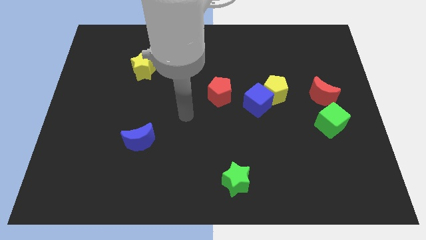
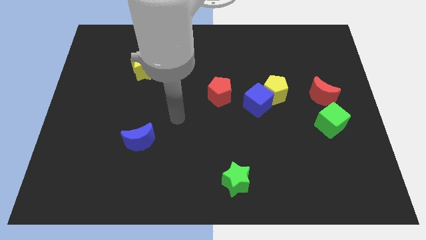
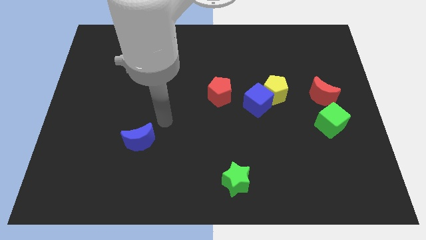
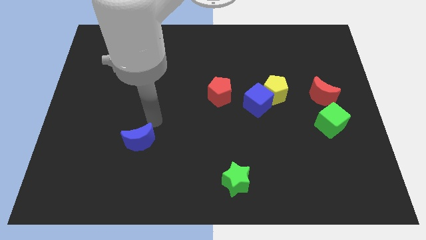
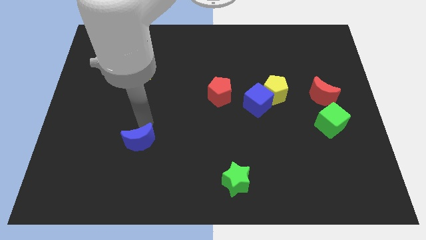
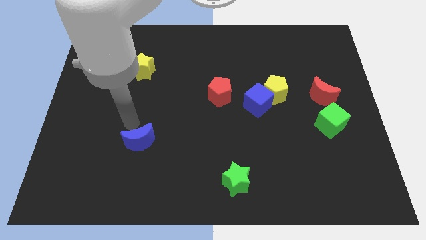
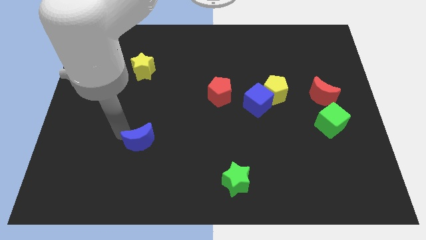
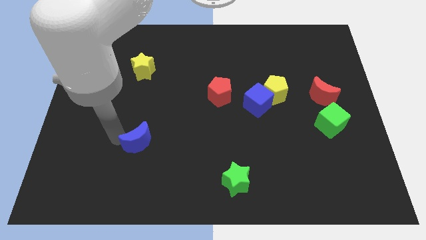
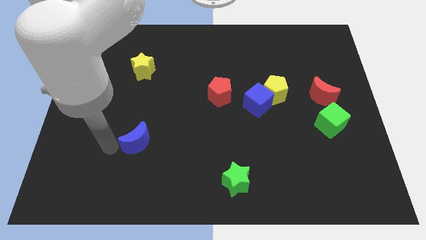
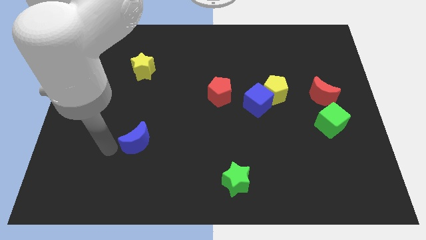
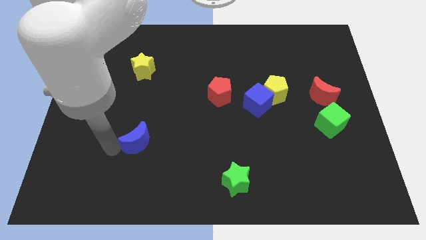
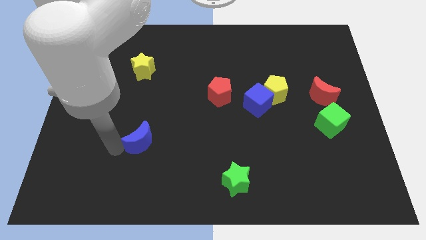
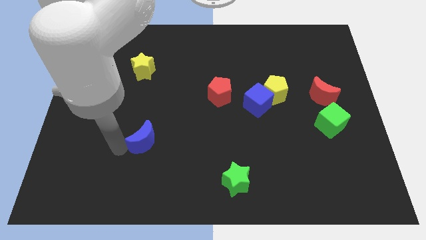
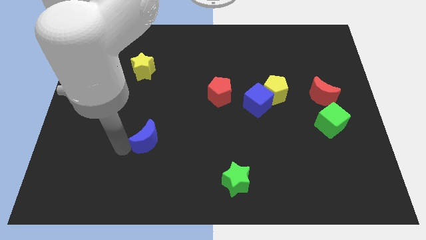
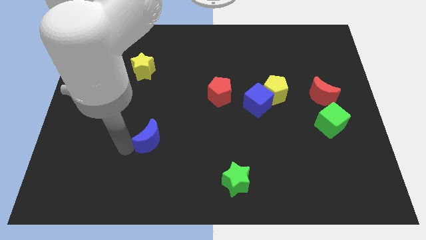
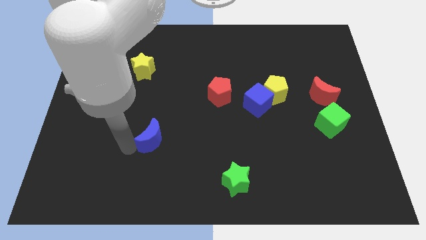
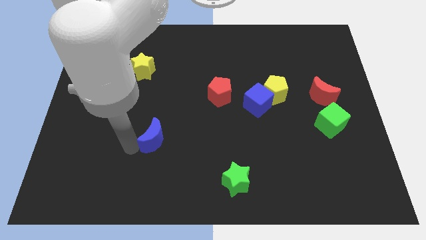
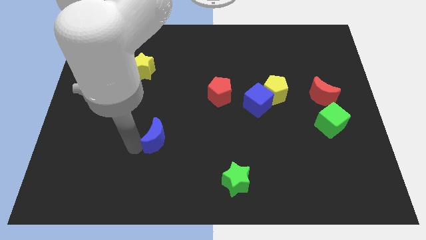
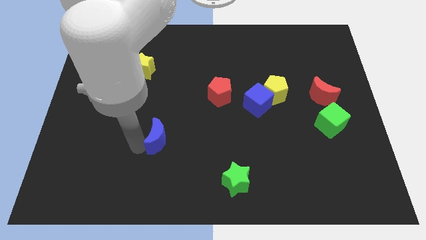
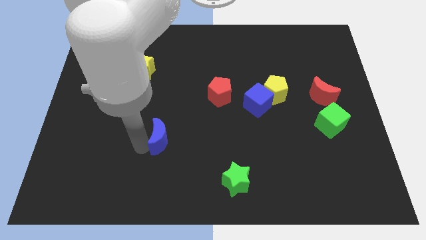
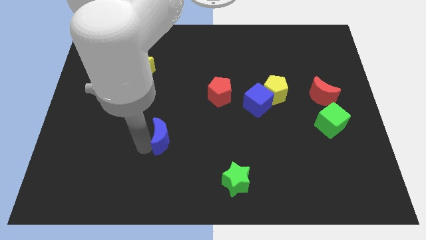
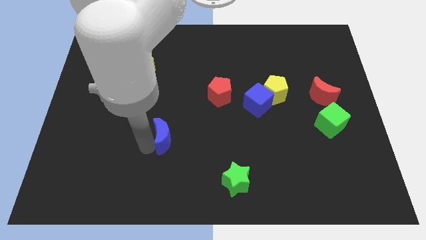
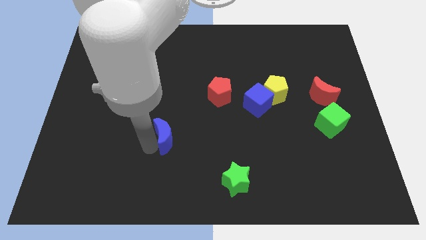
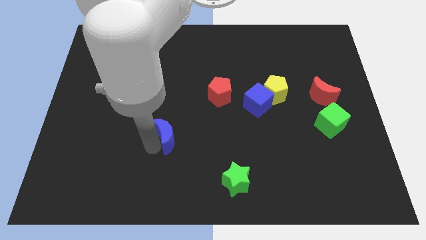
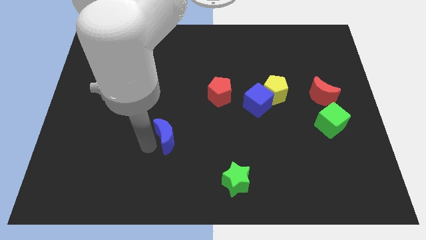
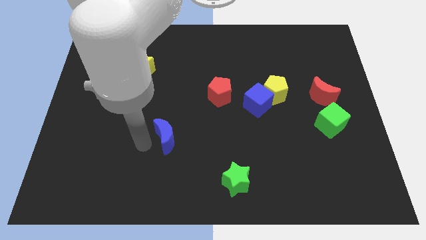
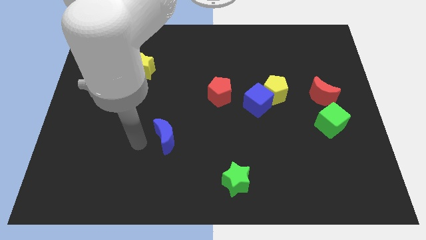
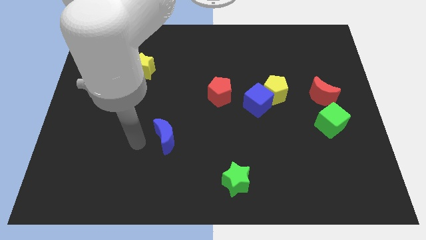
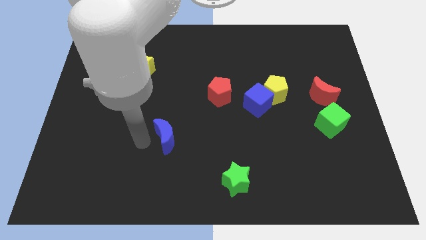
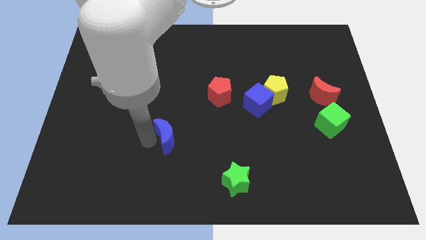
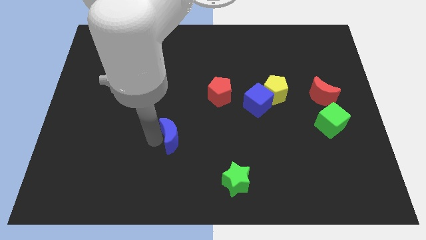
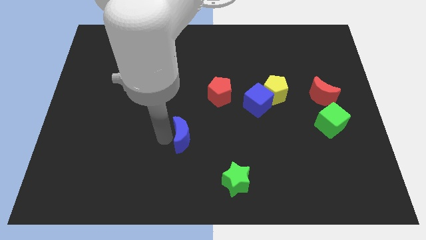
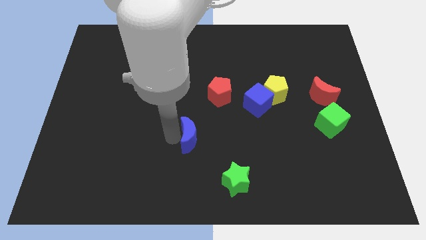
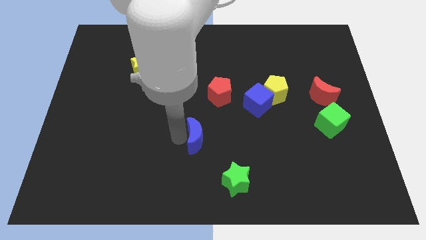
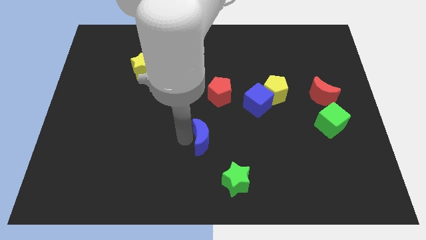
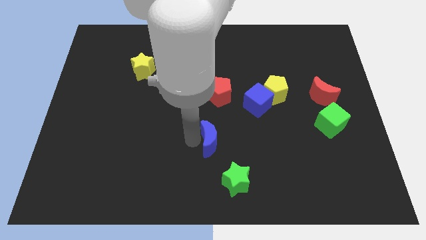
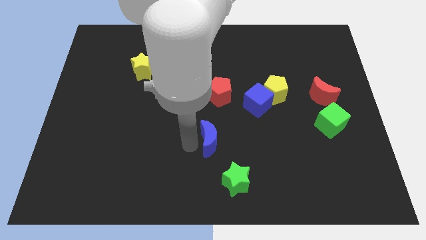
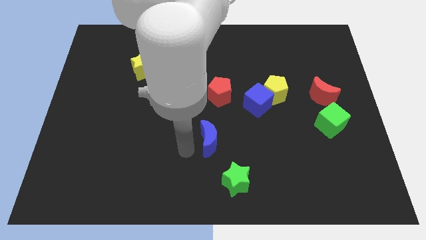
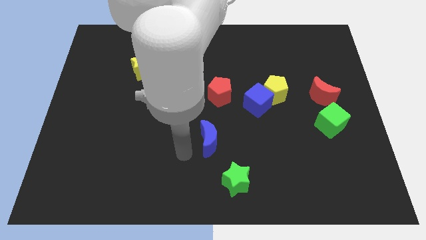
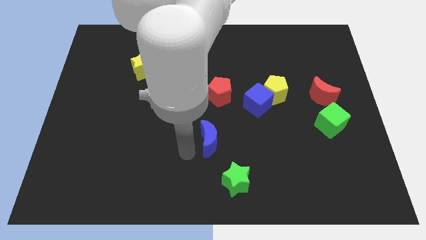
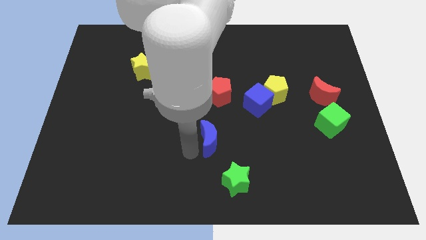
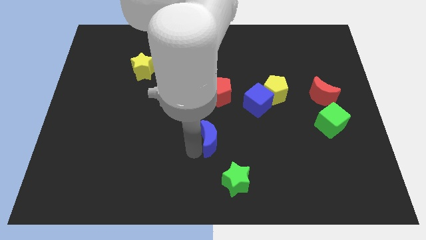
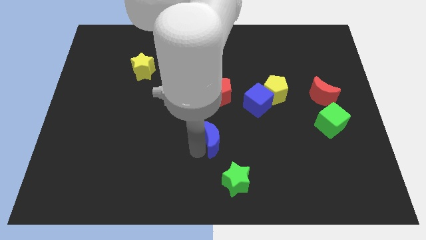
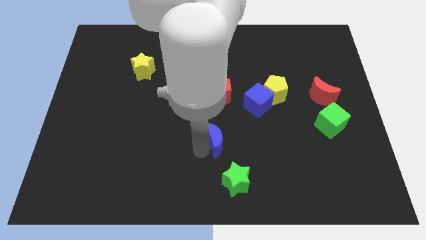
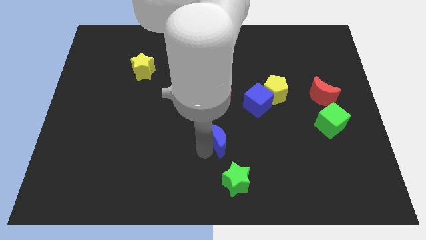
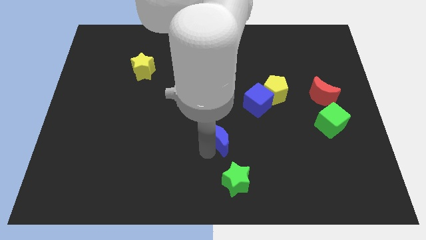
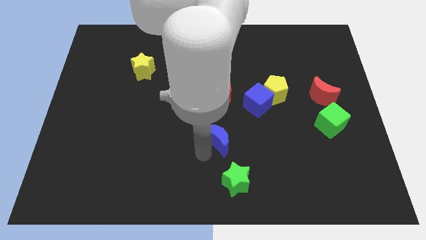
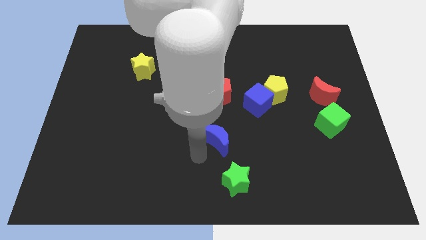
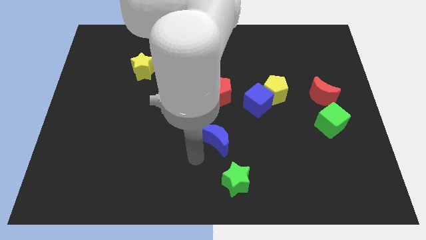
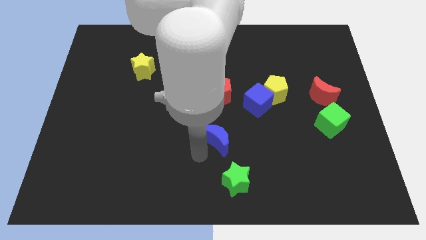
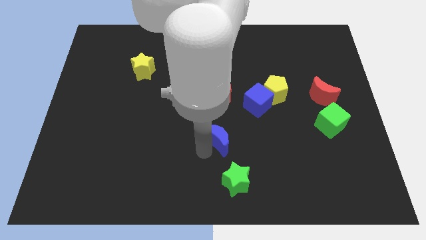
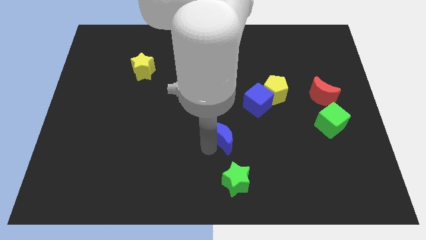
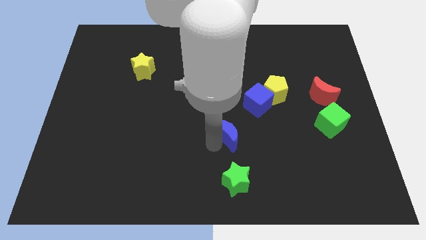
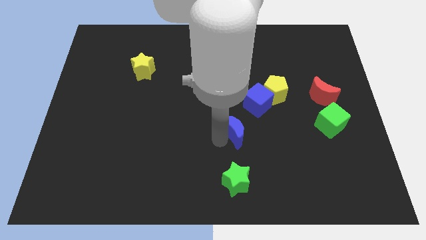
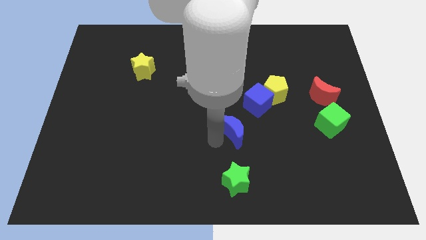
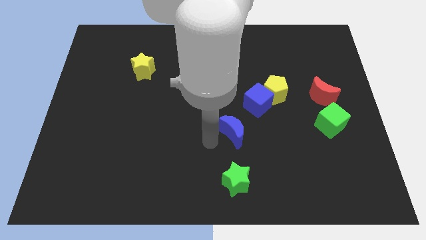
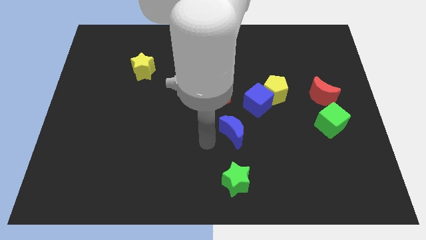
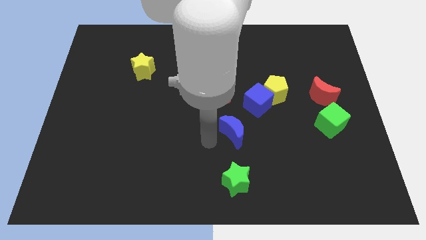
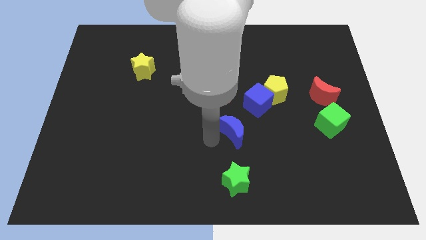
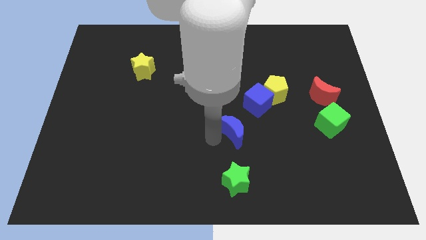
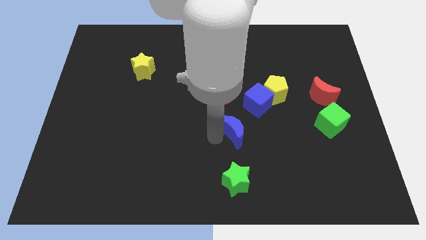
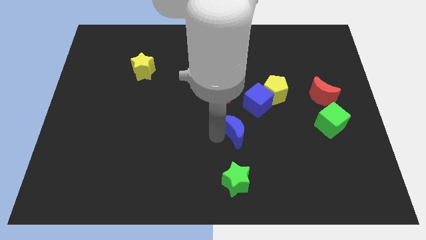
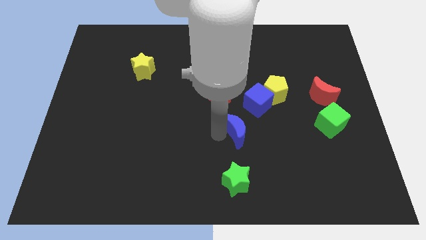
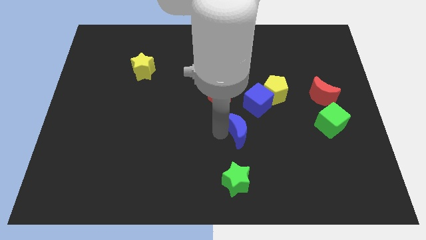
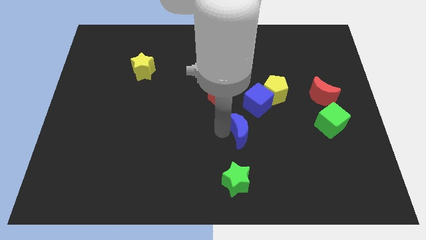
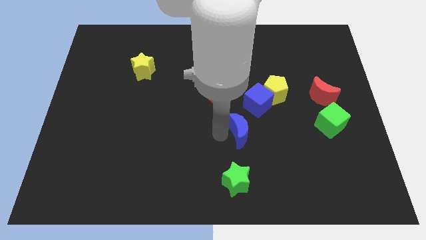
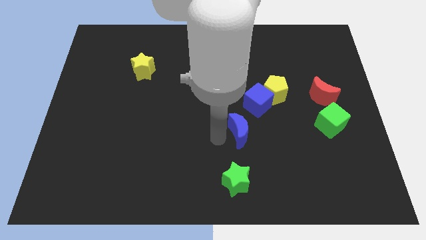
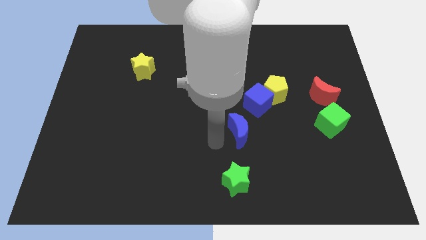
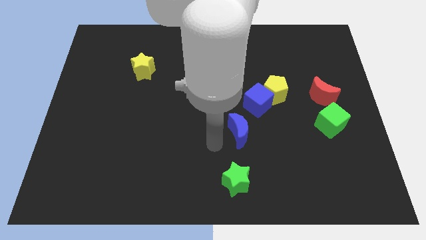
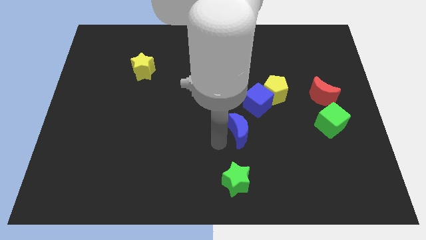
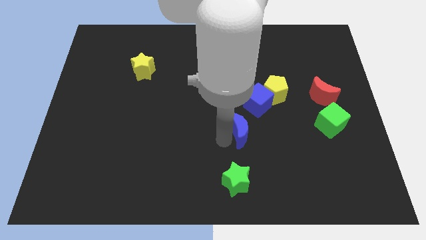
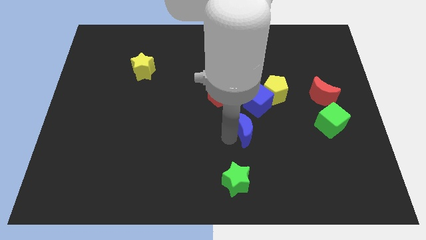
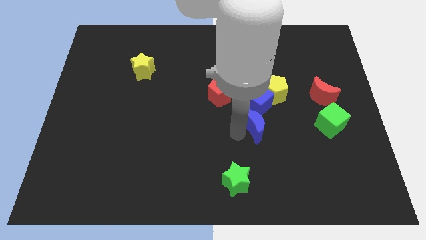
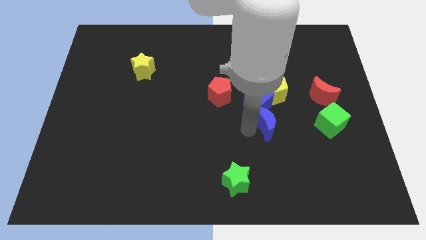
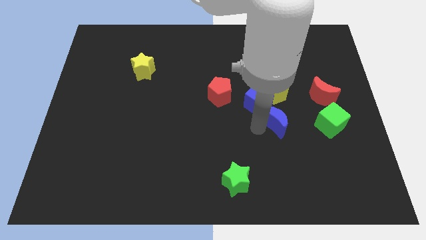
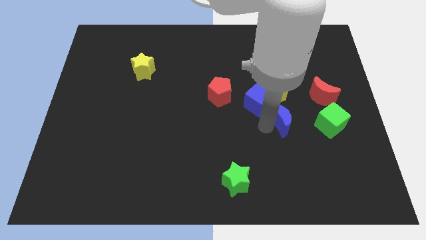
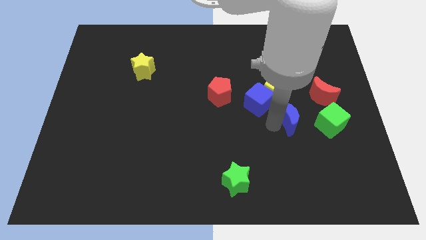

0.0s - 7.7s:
slide the blue moon to the bottom right of the yellow pentagon
